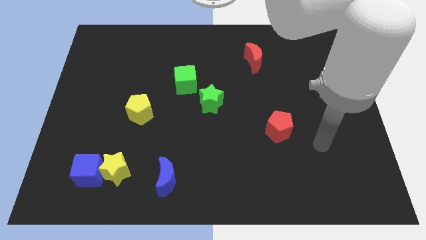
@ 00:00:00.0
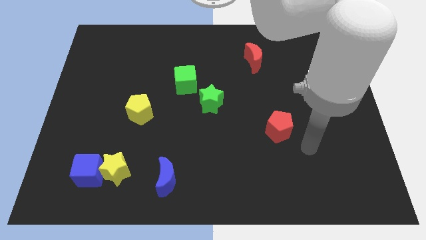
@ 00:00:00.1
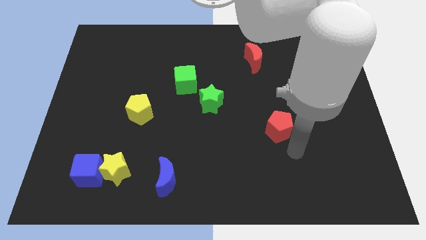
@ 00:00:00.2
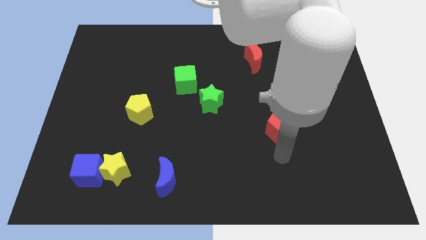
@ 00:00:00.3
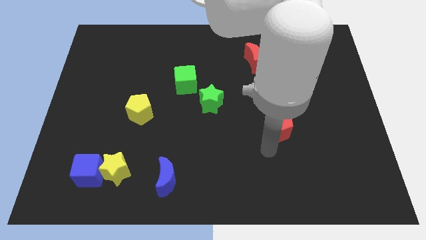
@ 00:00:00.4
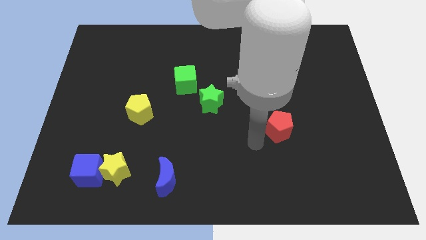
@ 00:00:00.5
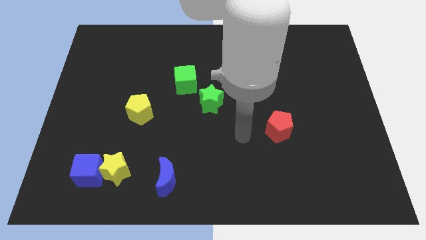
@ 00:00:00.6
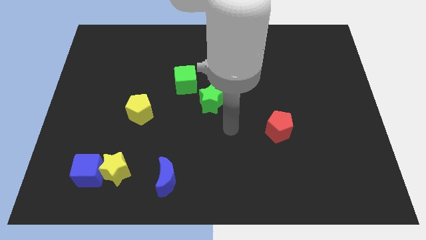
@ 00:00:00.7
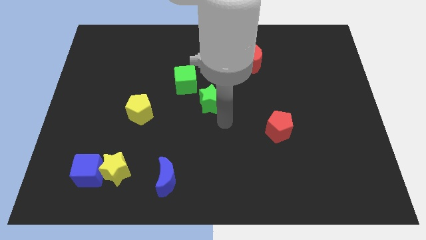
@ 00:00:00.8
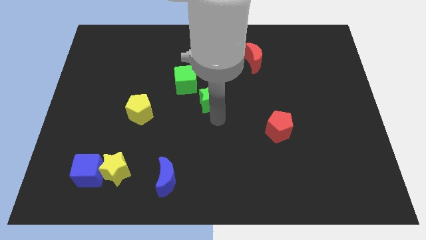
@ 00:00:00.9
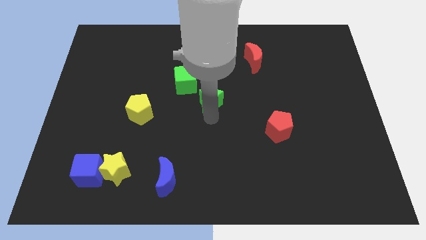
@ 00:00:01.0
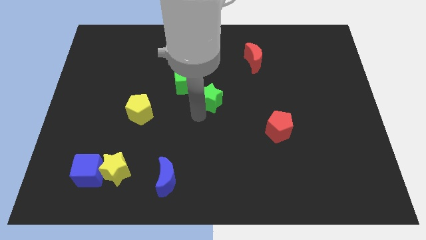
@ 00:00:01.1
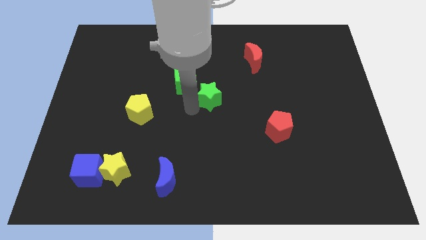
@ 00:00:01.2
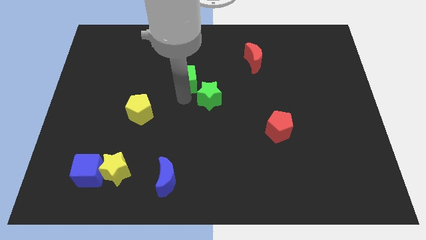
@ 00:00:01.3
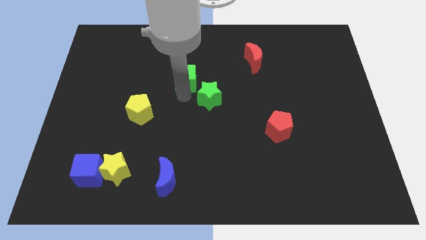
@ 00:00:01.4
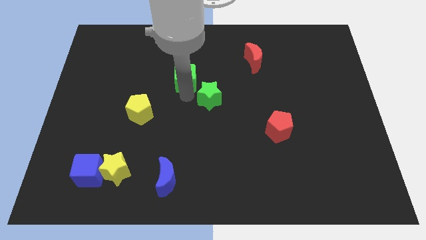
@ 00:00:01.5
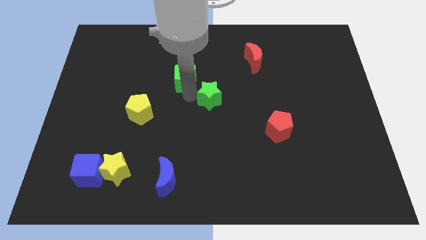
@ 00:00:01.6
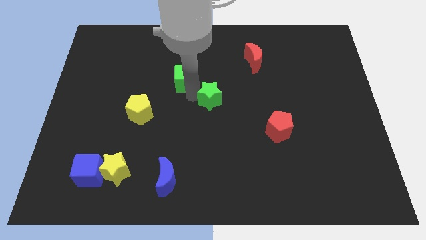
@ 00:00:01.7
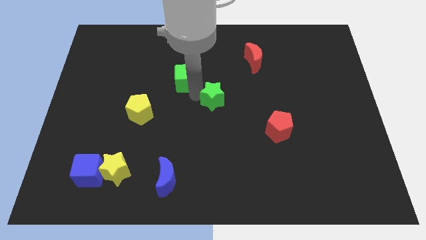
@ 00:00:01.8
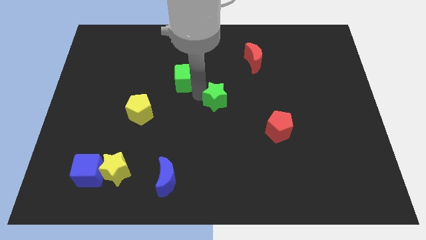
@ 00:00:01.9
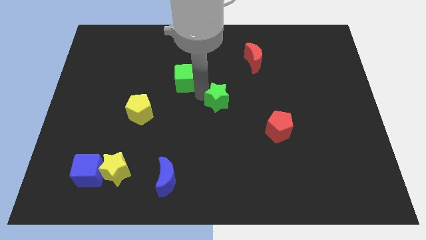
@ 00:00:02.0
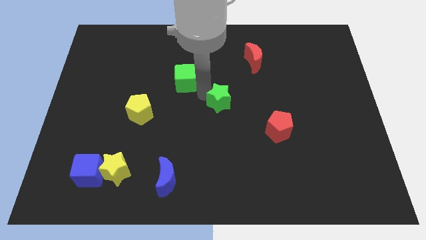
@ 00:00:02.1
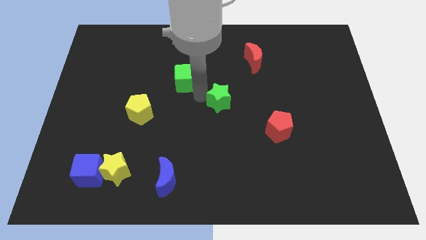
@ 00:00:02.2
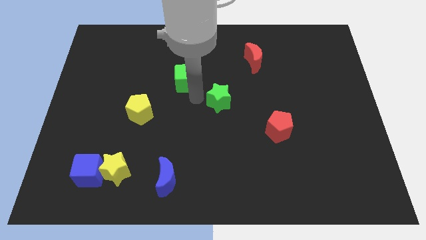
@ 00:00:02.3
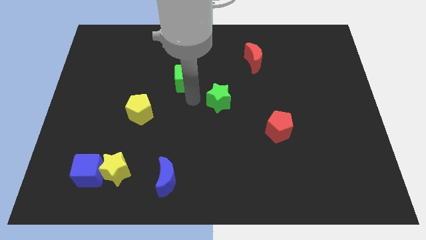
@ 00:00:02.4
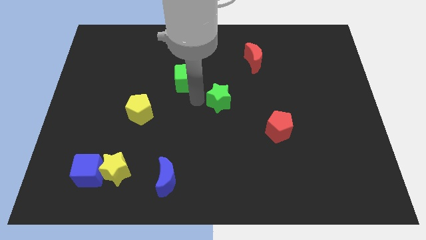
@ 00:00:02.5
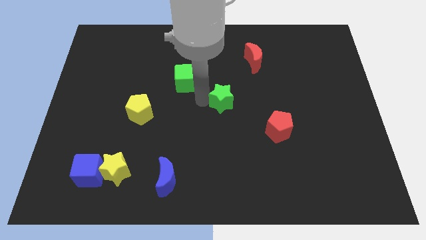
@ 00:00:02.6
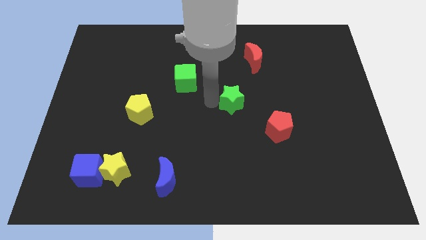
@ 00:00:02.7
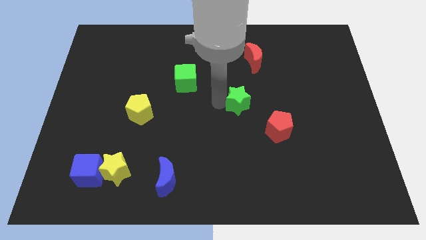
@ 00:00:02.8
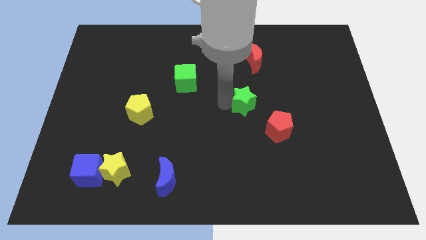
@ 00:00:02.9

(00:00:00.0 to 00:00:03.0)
move the green star a bit to the right

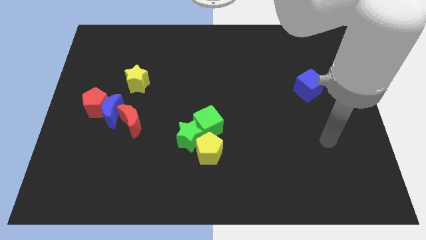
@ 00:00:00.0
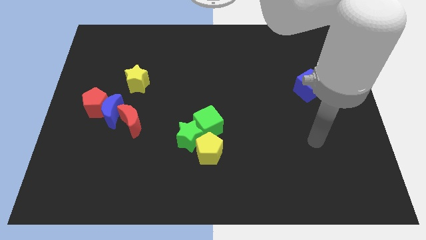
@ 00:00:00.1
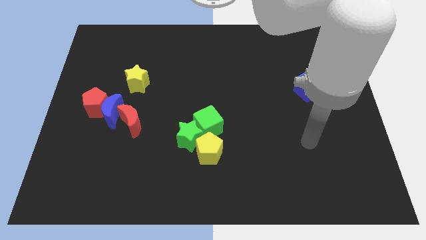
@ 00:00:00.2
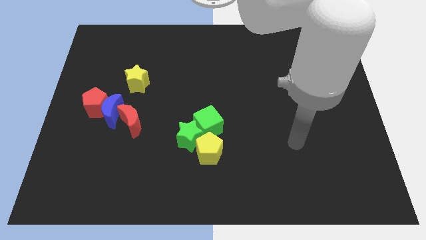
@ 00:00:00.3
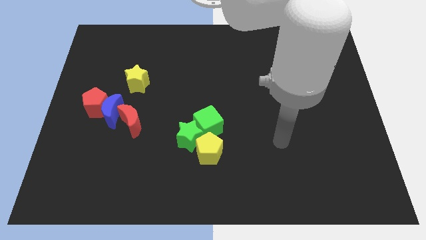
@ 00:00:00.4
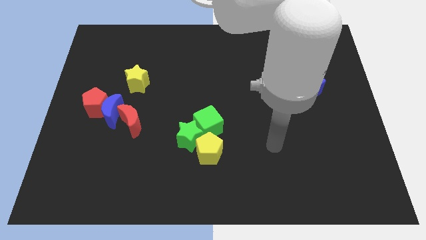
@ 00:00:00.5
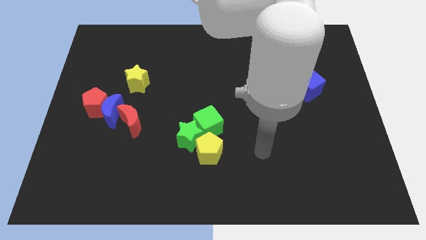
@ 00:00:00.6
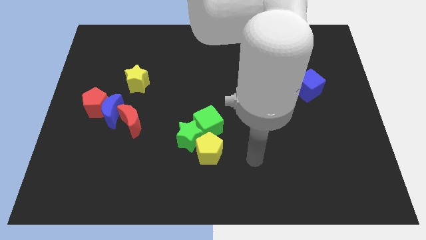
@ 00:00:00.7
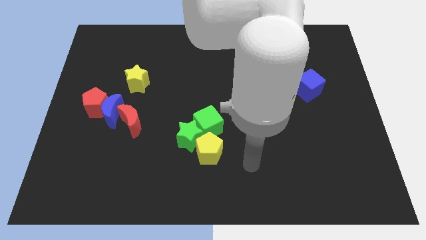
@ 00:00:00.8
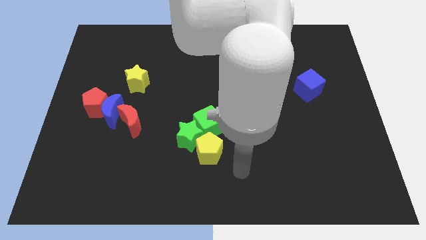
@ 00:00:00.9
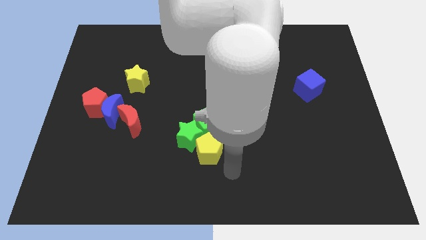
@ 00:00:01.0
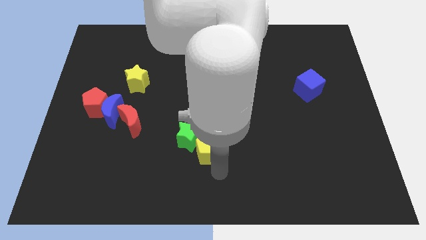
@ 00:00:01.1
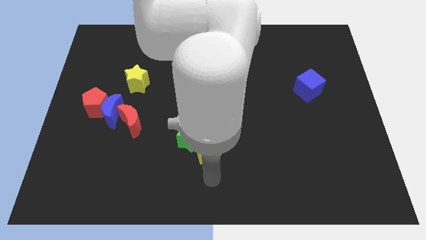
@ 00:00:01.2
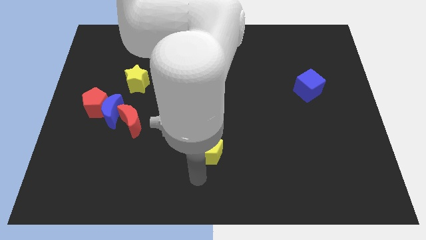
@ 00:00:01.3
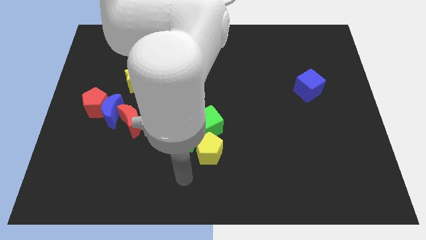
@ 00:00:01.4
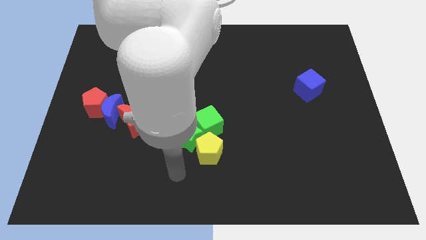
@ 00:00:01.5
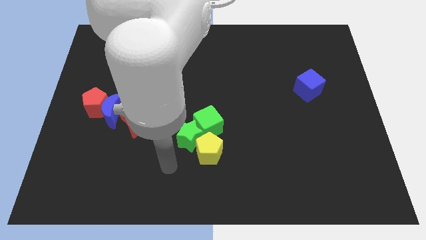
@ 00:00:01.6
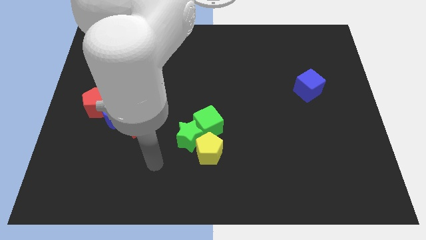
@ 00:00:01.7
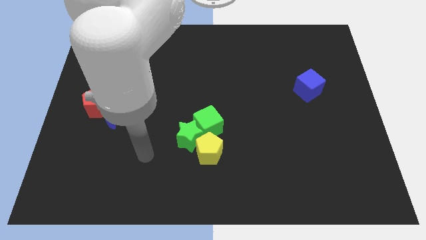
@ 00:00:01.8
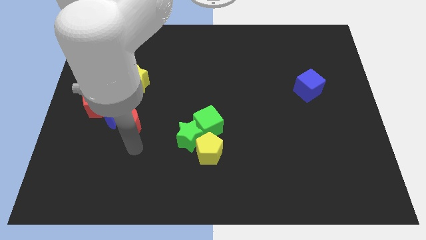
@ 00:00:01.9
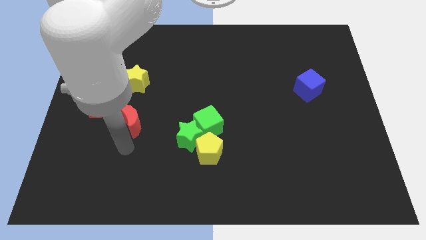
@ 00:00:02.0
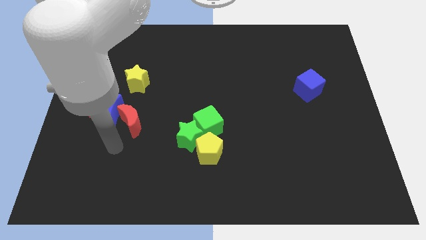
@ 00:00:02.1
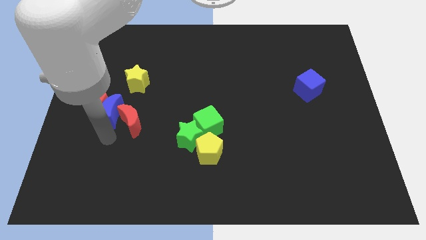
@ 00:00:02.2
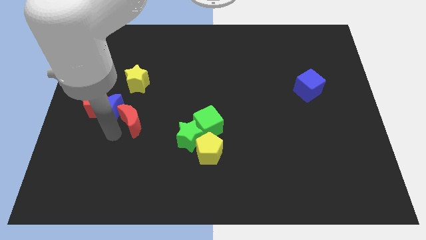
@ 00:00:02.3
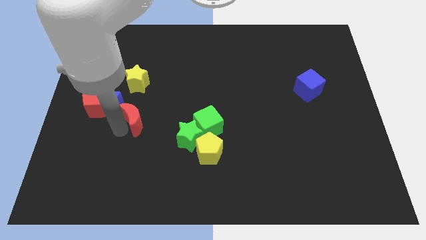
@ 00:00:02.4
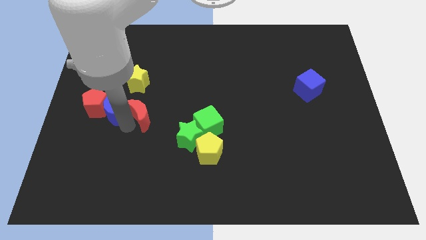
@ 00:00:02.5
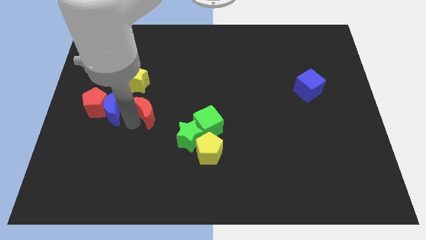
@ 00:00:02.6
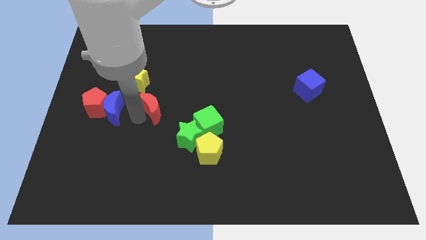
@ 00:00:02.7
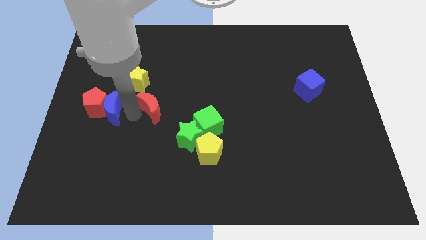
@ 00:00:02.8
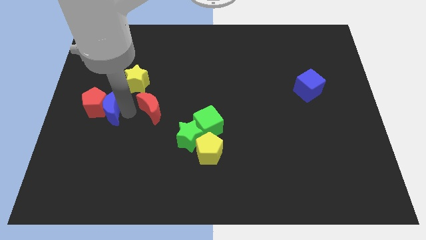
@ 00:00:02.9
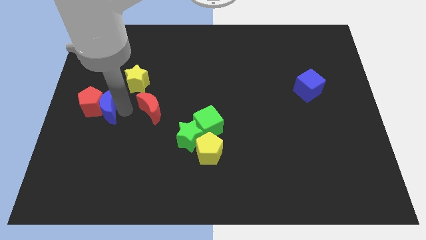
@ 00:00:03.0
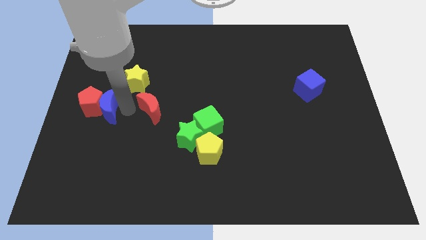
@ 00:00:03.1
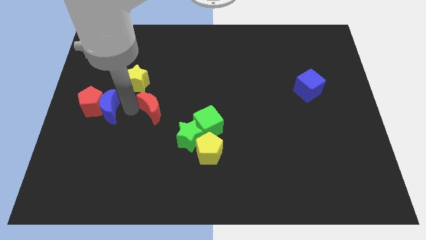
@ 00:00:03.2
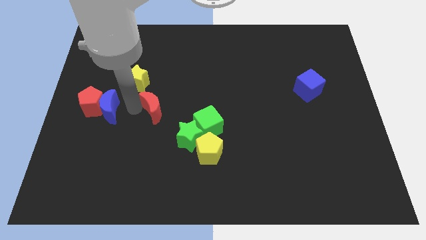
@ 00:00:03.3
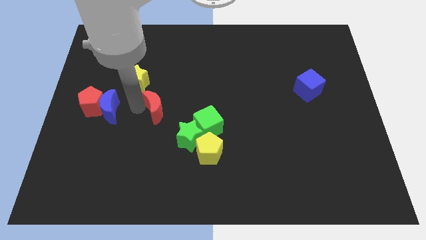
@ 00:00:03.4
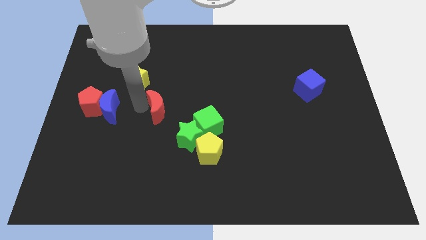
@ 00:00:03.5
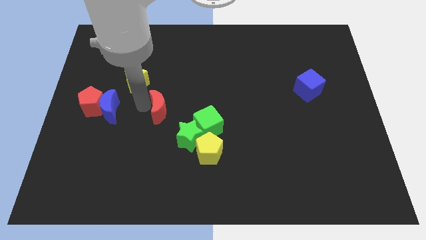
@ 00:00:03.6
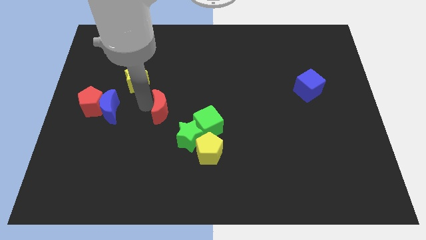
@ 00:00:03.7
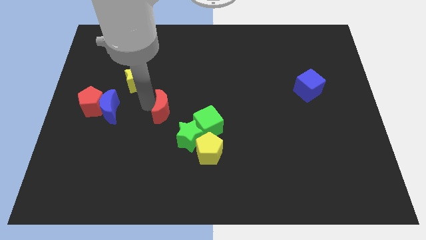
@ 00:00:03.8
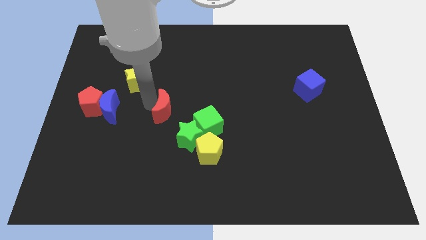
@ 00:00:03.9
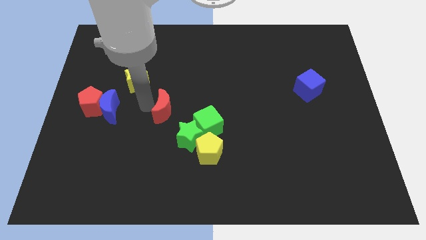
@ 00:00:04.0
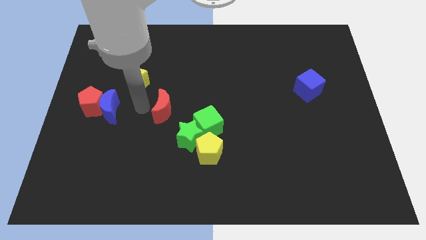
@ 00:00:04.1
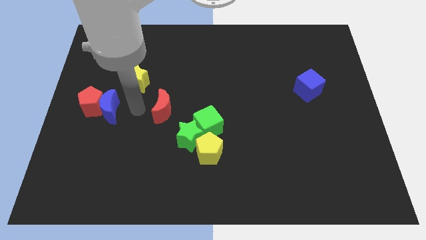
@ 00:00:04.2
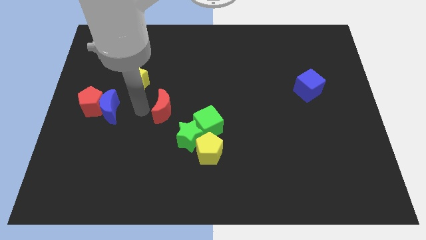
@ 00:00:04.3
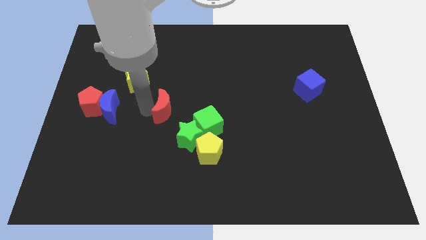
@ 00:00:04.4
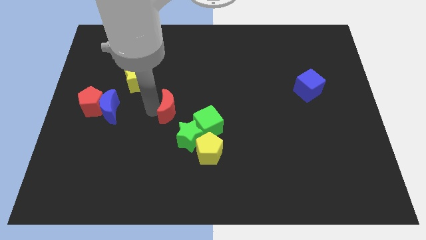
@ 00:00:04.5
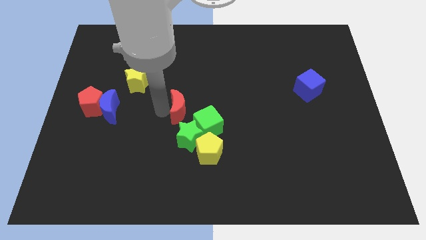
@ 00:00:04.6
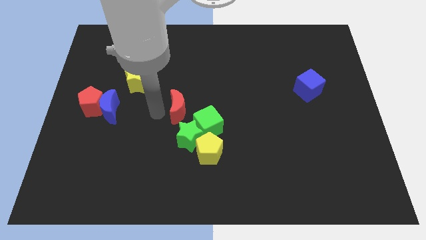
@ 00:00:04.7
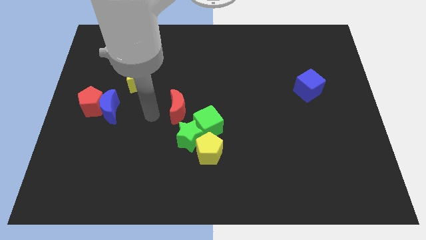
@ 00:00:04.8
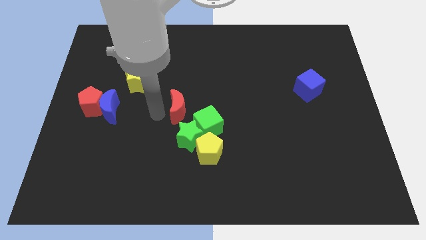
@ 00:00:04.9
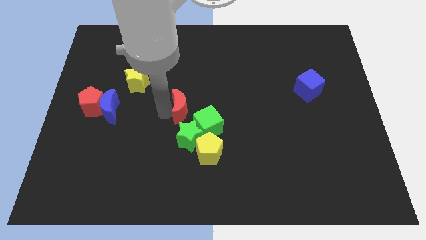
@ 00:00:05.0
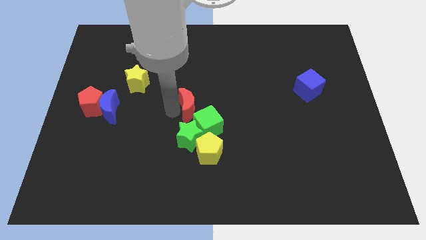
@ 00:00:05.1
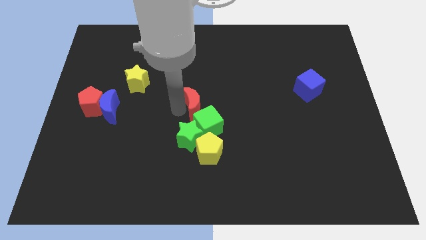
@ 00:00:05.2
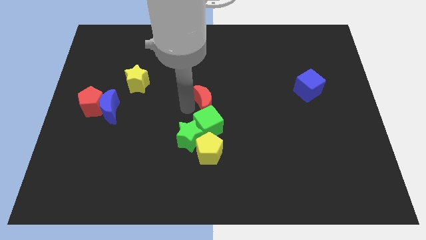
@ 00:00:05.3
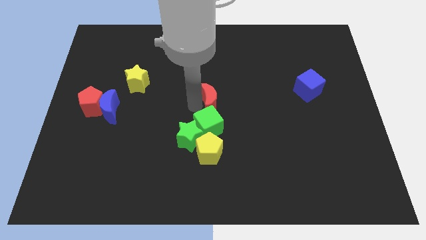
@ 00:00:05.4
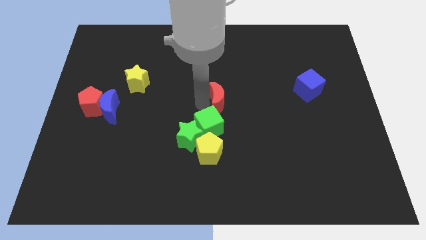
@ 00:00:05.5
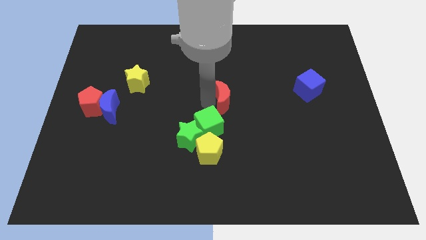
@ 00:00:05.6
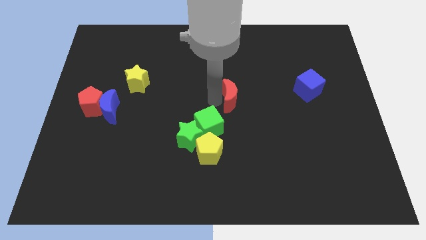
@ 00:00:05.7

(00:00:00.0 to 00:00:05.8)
slide the red moon right
